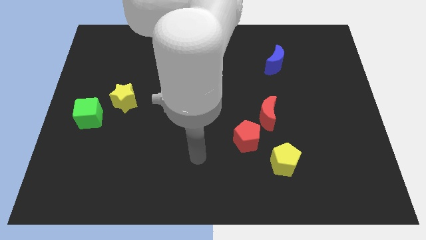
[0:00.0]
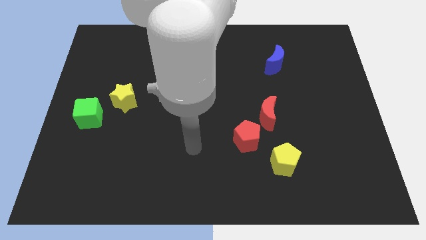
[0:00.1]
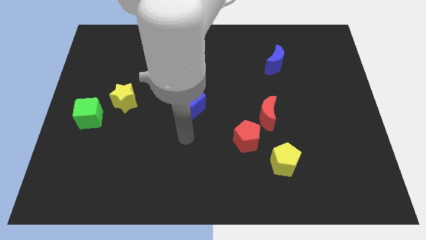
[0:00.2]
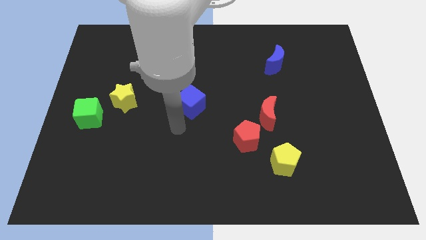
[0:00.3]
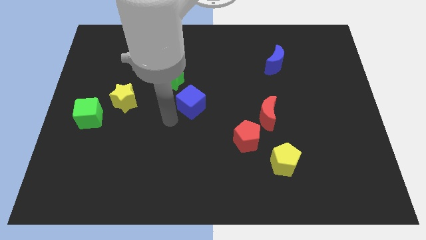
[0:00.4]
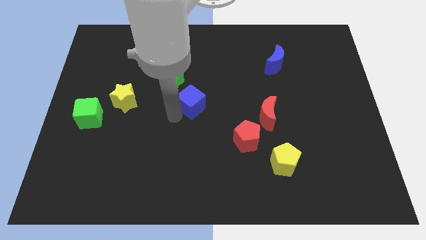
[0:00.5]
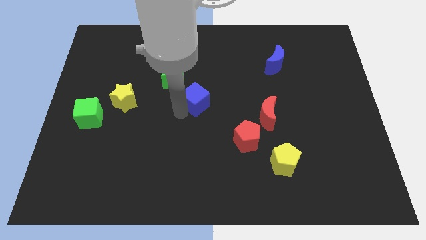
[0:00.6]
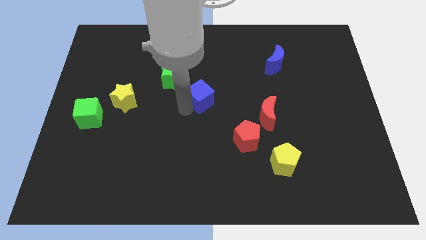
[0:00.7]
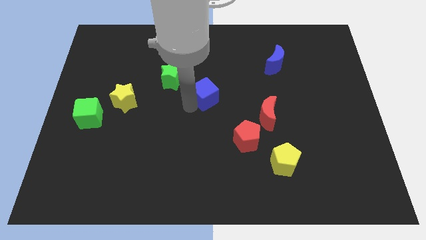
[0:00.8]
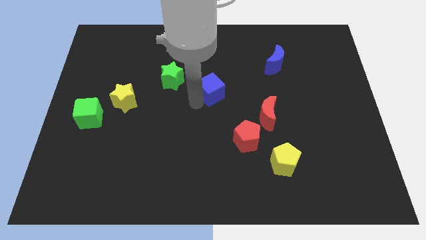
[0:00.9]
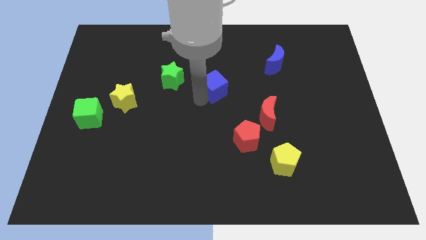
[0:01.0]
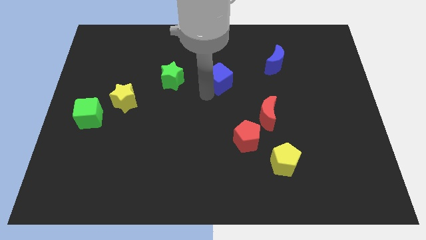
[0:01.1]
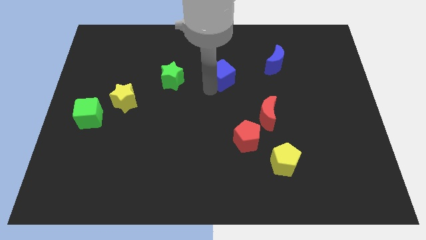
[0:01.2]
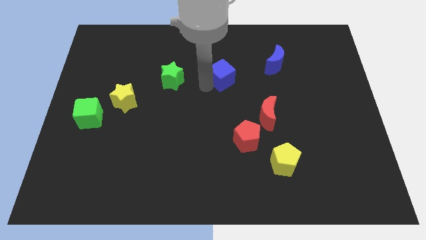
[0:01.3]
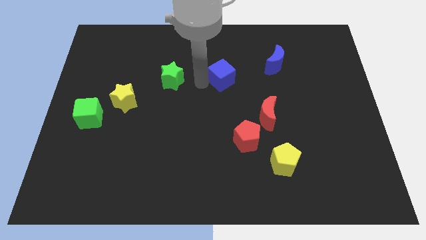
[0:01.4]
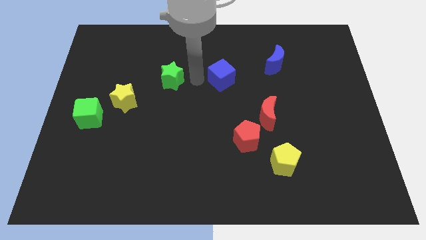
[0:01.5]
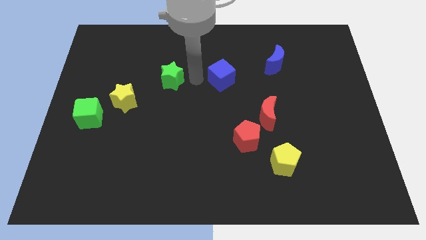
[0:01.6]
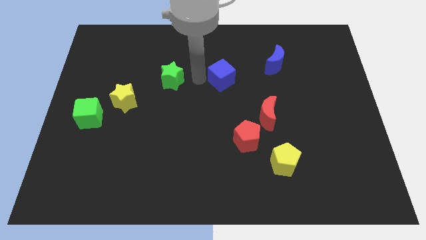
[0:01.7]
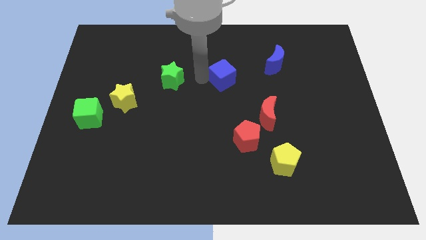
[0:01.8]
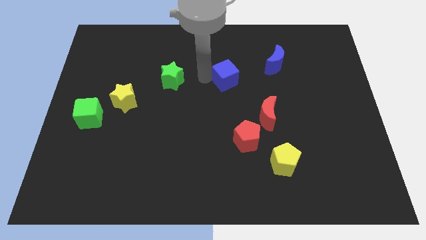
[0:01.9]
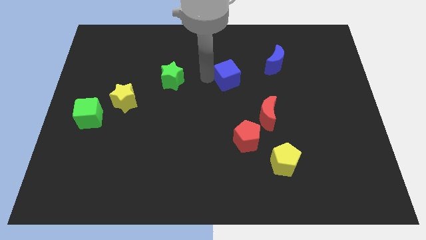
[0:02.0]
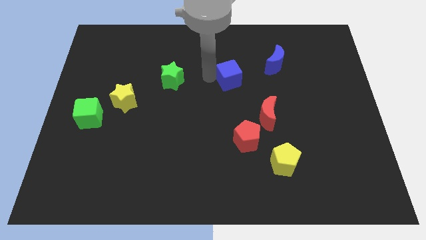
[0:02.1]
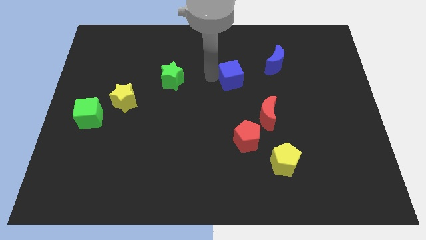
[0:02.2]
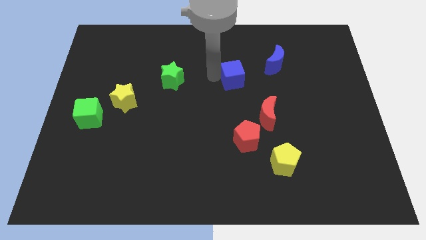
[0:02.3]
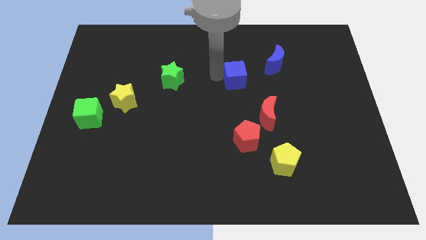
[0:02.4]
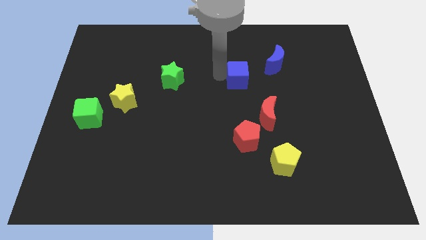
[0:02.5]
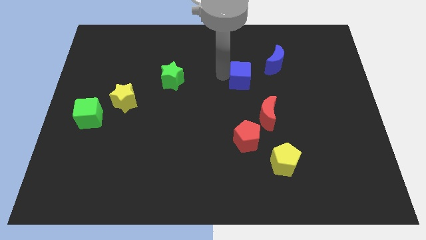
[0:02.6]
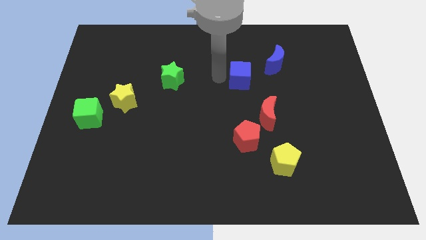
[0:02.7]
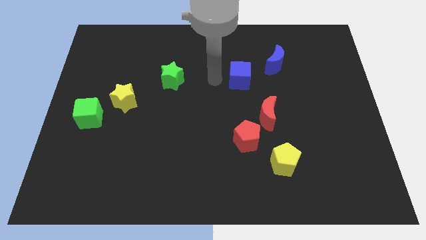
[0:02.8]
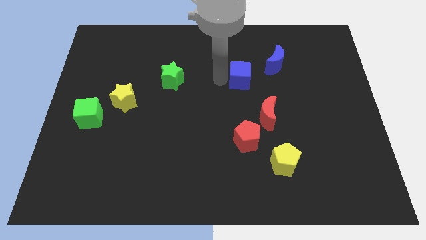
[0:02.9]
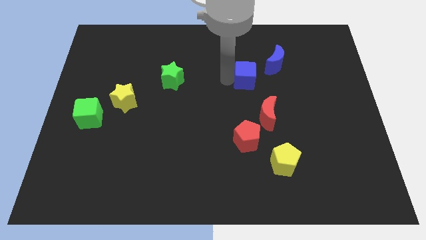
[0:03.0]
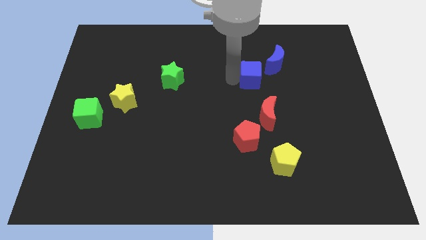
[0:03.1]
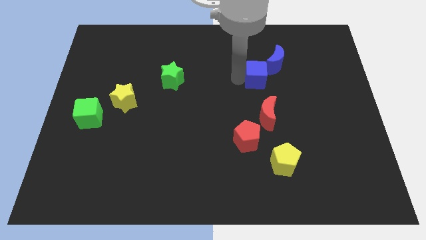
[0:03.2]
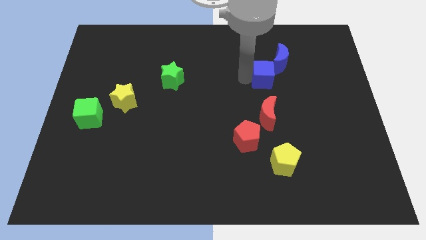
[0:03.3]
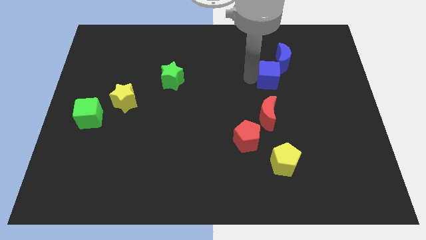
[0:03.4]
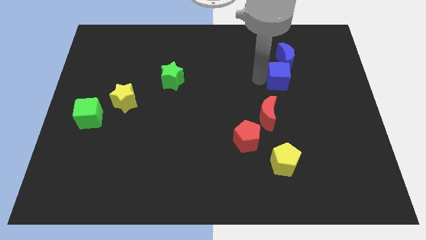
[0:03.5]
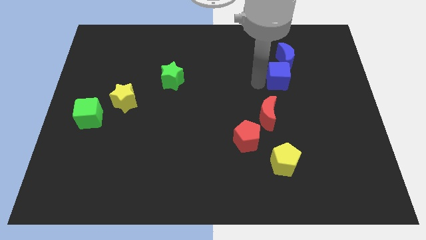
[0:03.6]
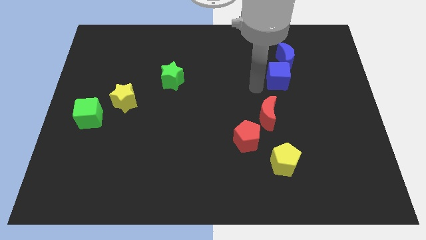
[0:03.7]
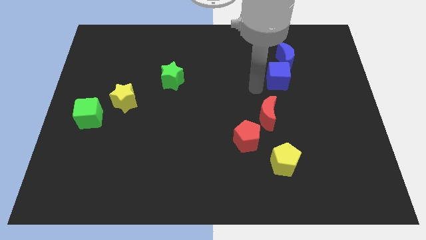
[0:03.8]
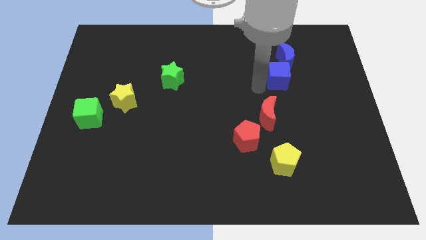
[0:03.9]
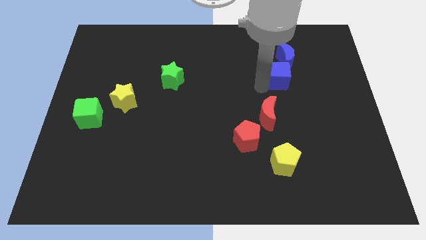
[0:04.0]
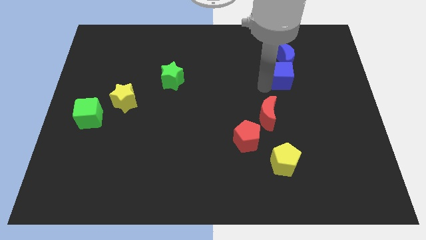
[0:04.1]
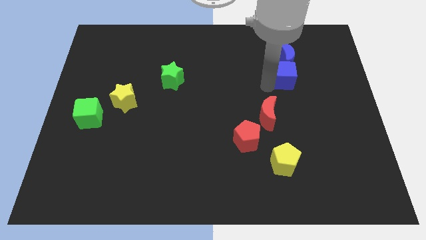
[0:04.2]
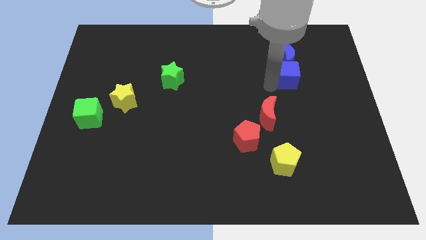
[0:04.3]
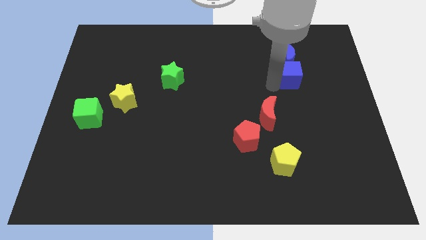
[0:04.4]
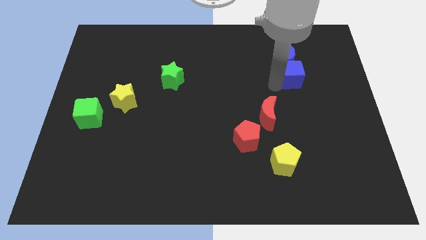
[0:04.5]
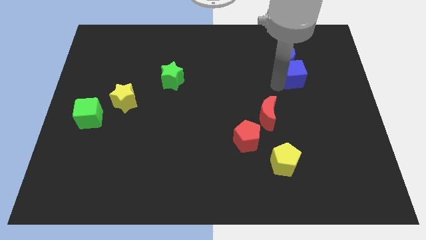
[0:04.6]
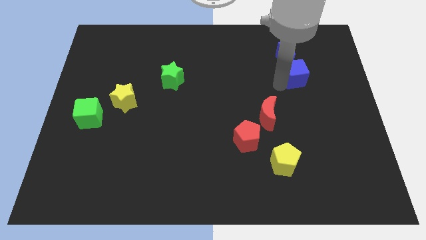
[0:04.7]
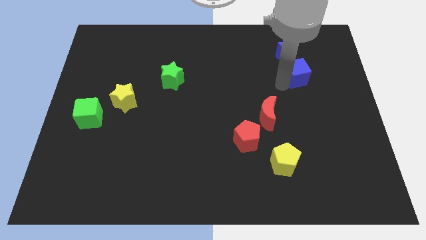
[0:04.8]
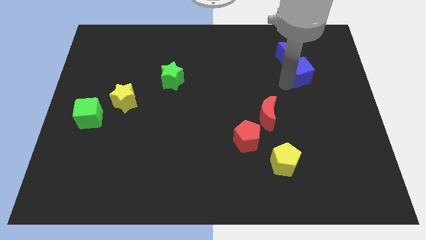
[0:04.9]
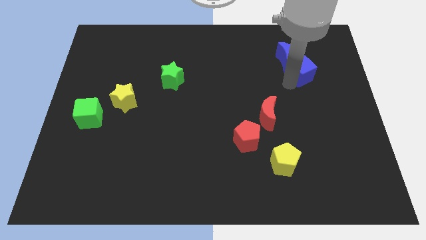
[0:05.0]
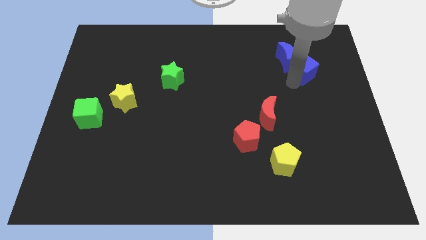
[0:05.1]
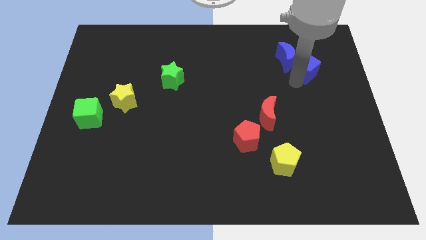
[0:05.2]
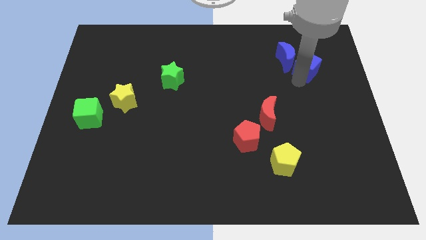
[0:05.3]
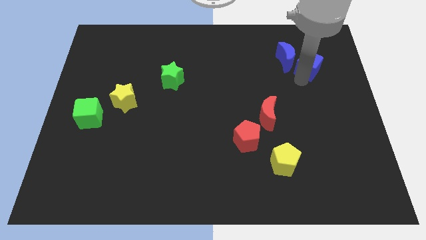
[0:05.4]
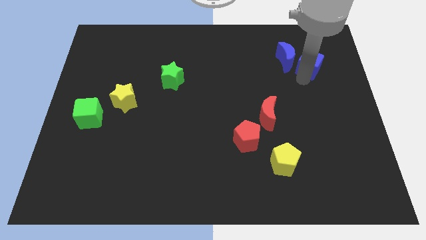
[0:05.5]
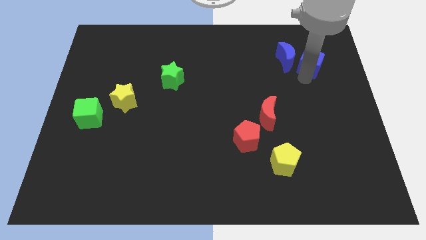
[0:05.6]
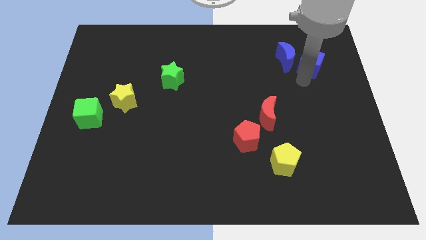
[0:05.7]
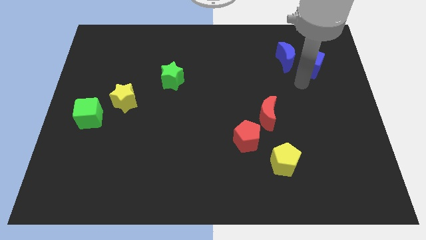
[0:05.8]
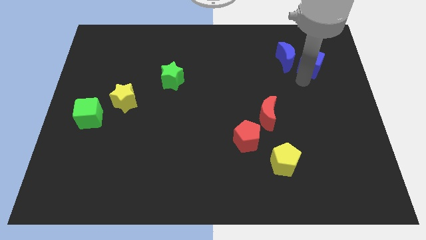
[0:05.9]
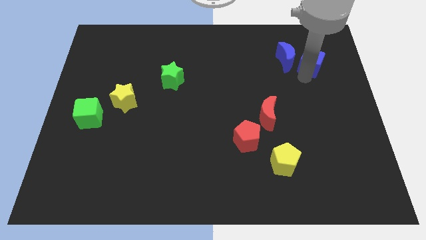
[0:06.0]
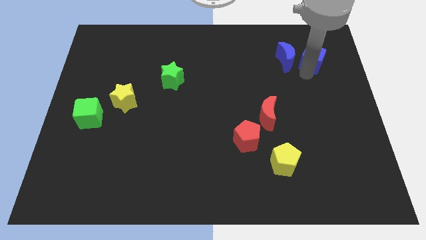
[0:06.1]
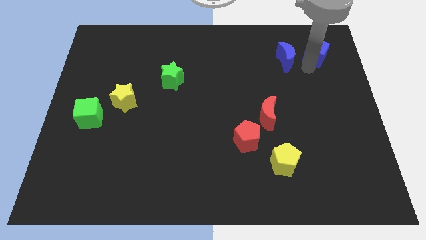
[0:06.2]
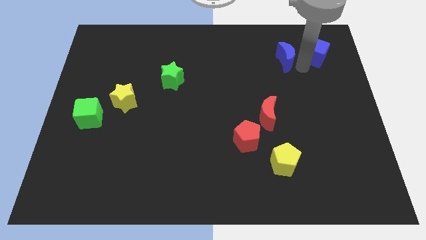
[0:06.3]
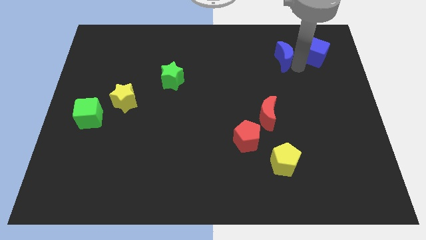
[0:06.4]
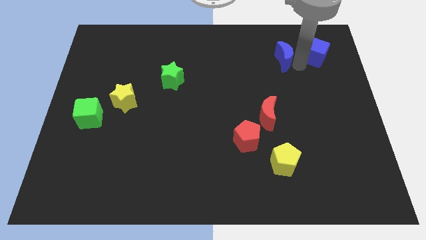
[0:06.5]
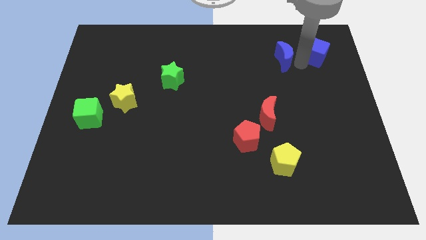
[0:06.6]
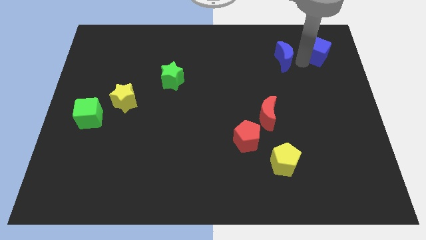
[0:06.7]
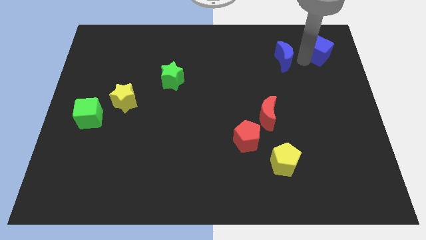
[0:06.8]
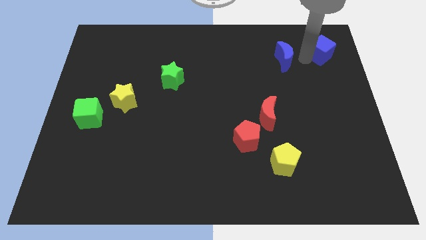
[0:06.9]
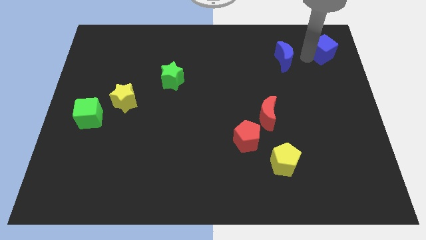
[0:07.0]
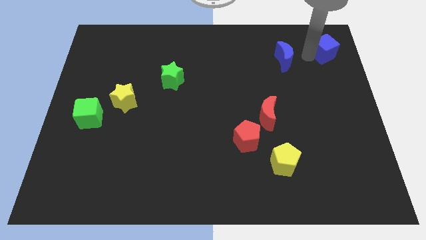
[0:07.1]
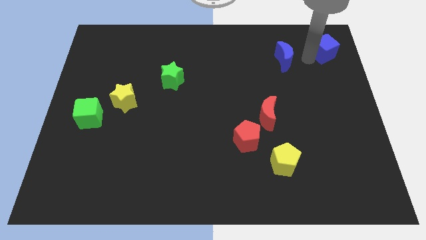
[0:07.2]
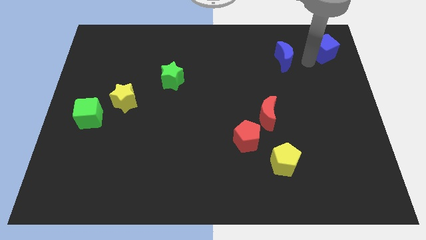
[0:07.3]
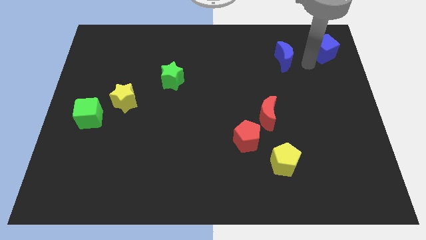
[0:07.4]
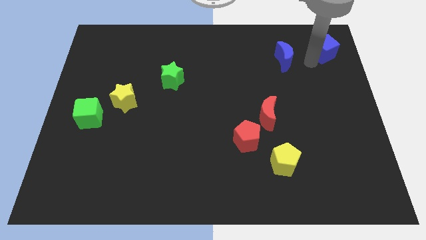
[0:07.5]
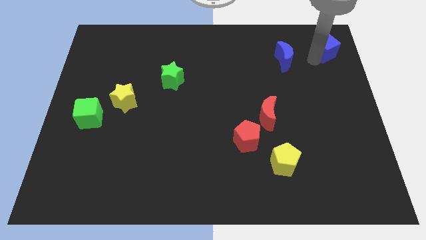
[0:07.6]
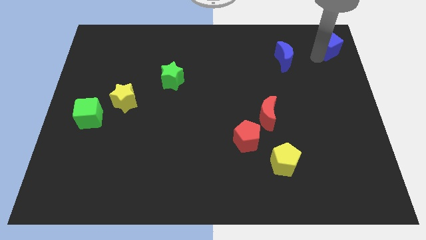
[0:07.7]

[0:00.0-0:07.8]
push the blue cube to the top right

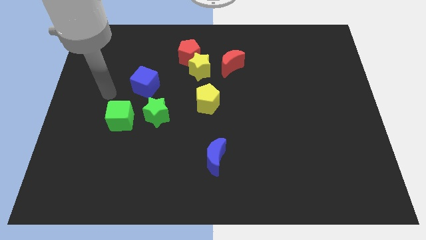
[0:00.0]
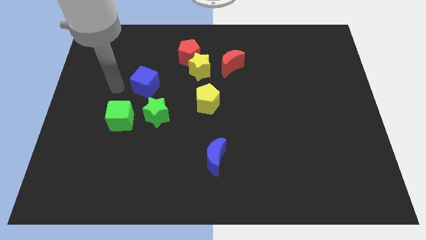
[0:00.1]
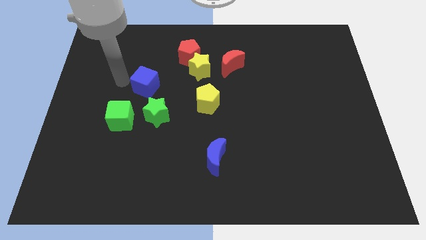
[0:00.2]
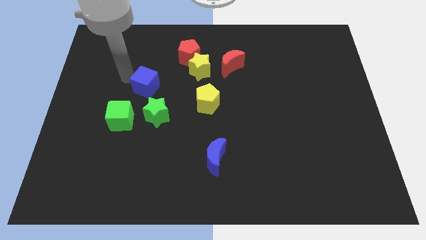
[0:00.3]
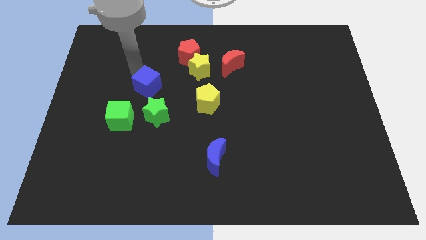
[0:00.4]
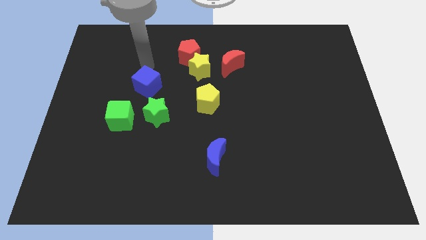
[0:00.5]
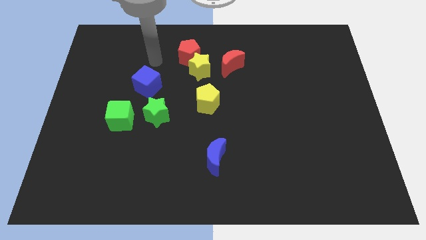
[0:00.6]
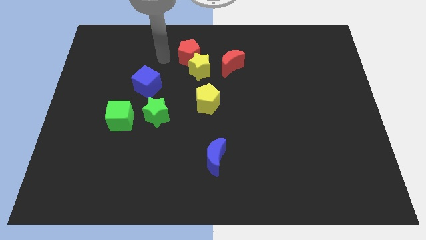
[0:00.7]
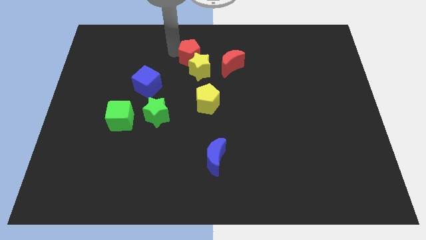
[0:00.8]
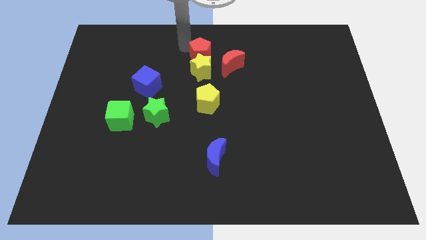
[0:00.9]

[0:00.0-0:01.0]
move the red pentagon to the top side
